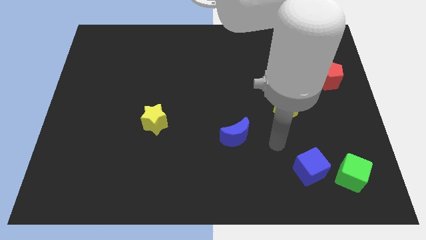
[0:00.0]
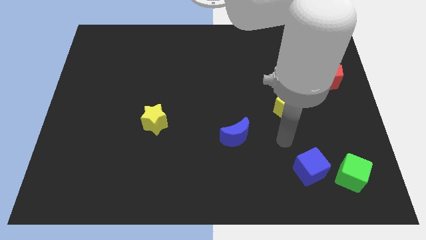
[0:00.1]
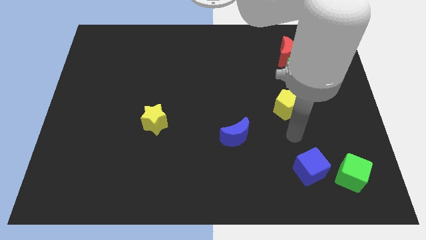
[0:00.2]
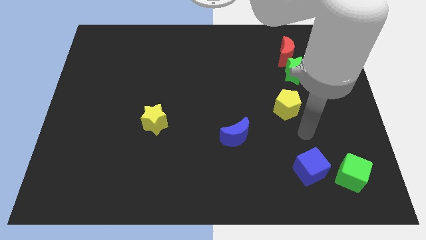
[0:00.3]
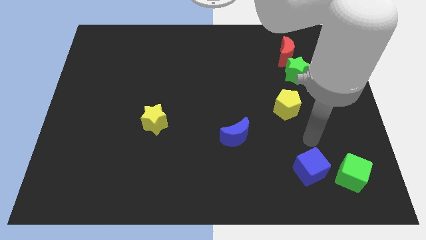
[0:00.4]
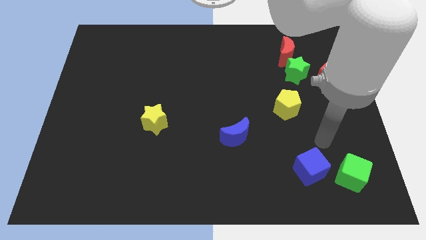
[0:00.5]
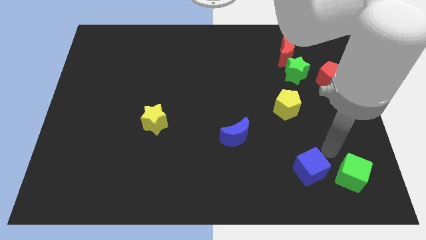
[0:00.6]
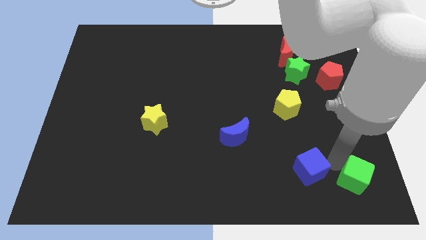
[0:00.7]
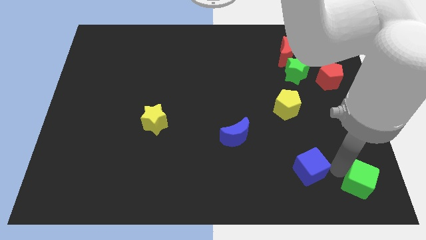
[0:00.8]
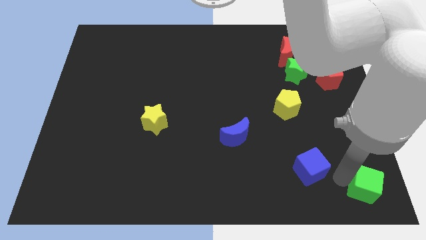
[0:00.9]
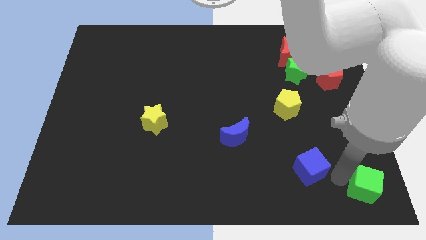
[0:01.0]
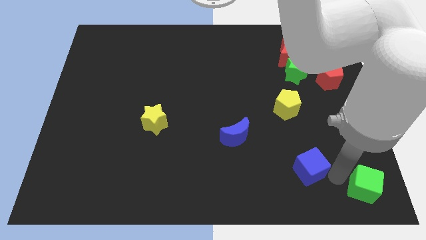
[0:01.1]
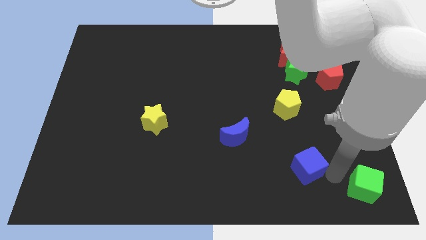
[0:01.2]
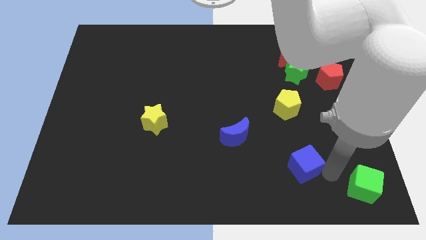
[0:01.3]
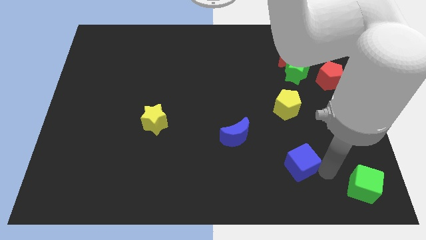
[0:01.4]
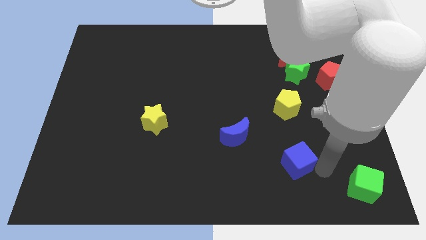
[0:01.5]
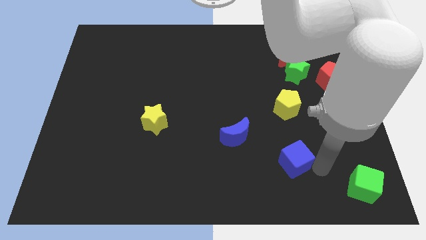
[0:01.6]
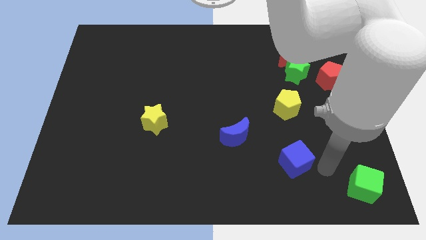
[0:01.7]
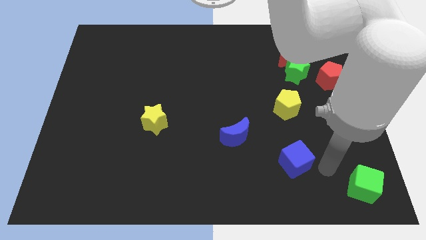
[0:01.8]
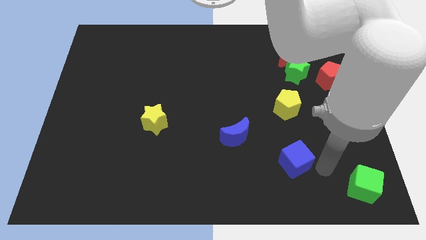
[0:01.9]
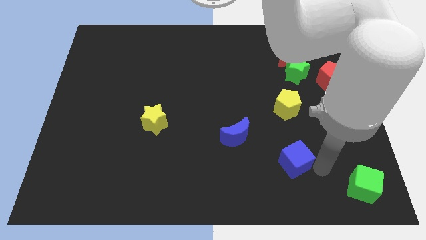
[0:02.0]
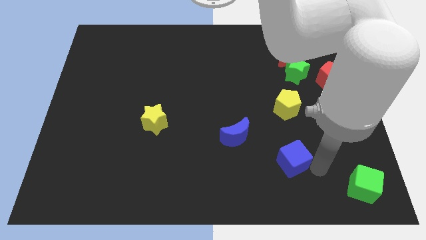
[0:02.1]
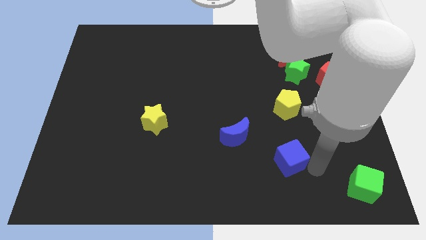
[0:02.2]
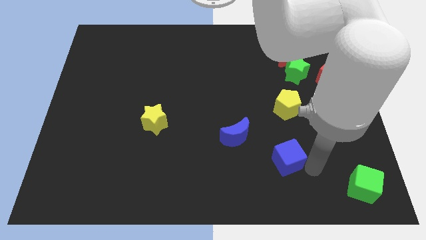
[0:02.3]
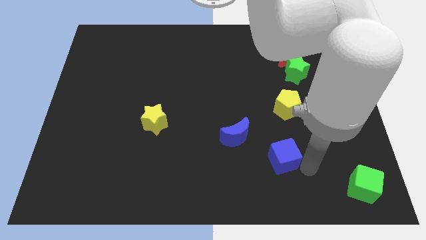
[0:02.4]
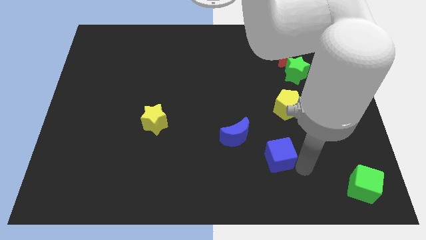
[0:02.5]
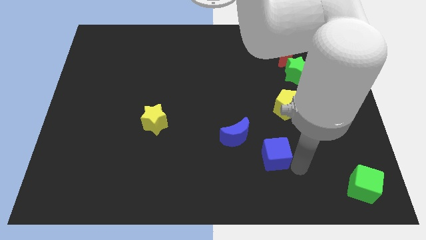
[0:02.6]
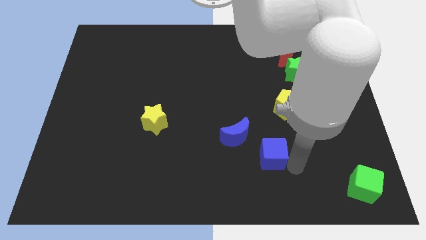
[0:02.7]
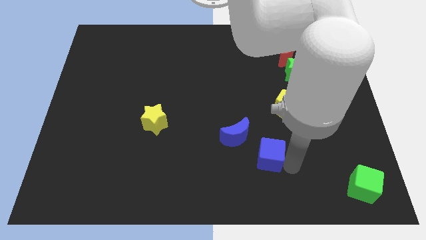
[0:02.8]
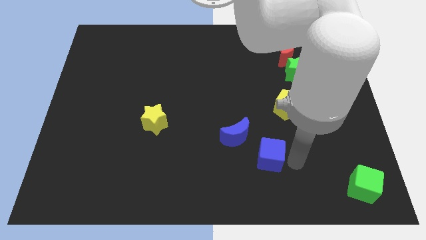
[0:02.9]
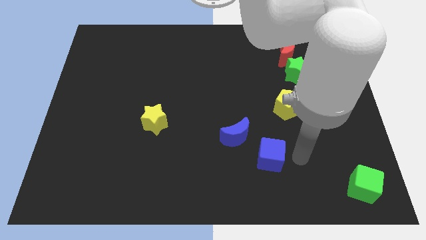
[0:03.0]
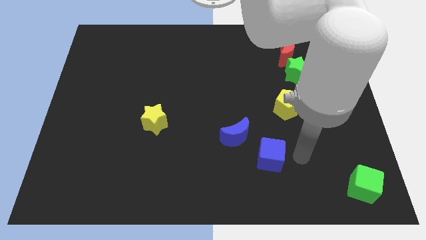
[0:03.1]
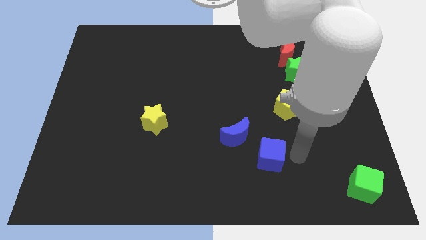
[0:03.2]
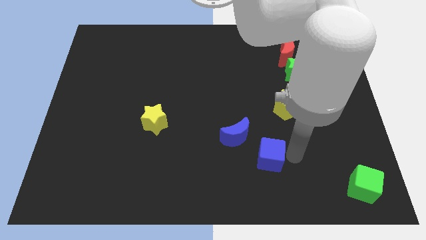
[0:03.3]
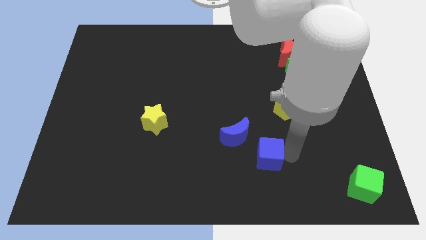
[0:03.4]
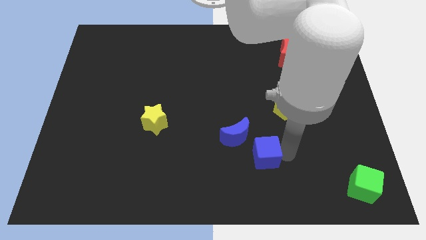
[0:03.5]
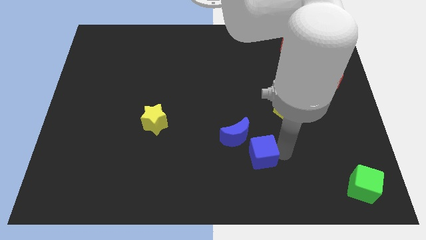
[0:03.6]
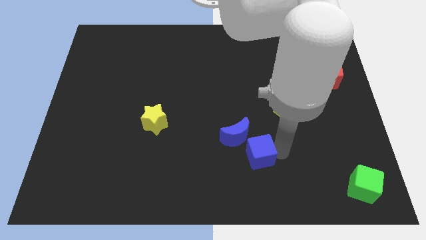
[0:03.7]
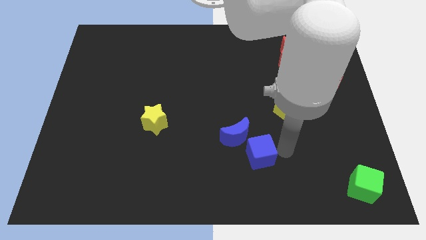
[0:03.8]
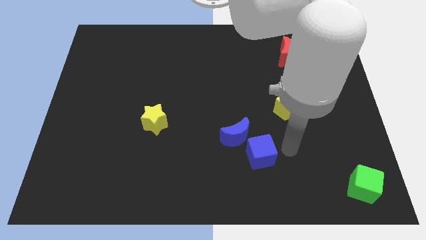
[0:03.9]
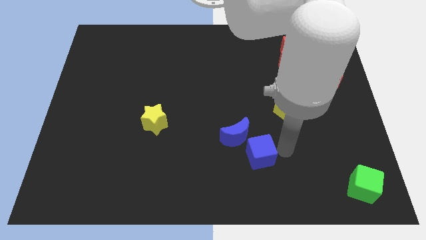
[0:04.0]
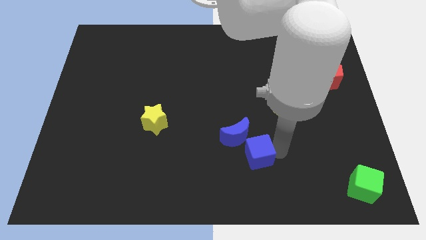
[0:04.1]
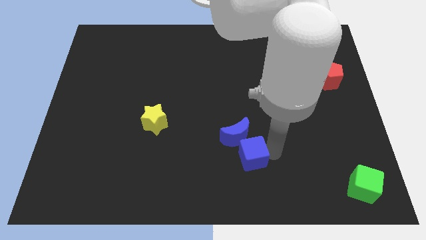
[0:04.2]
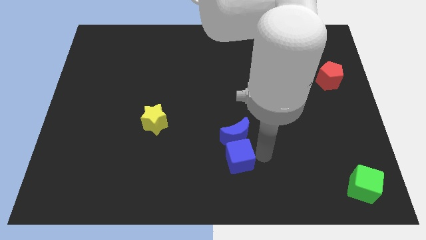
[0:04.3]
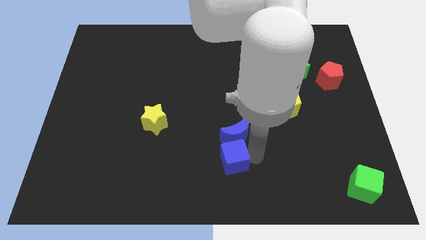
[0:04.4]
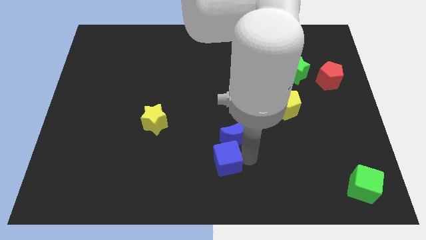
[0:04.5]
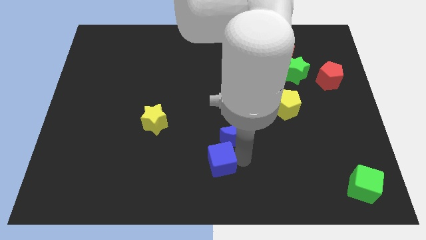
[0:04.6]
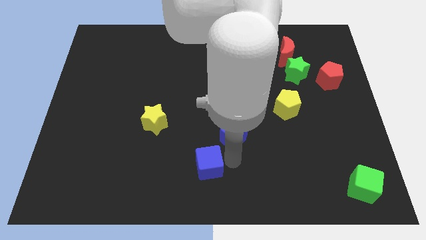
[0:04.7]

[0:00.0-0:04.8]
slide the blue cube left

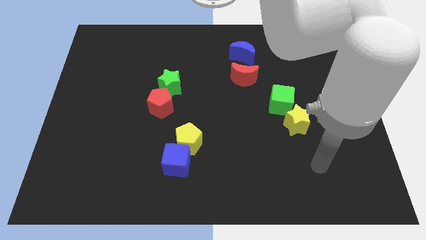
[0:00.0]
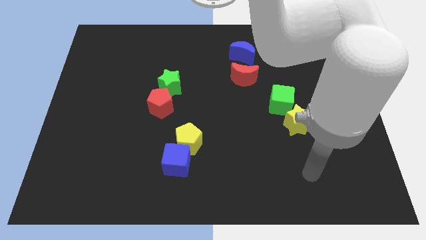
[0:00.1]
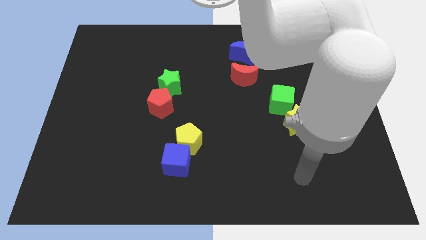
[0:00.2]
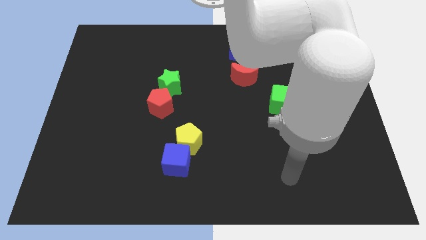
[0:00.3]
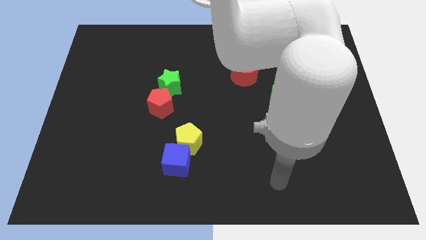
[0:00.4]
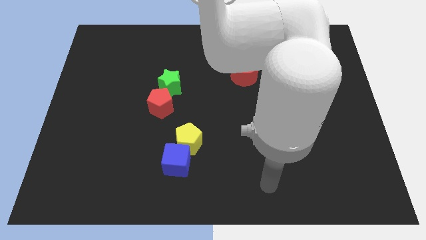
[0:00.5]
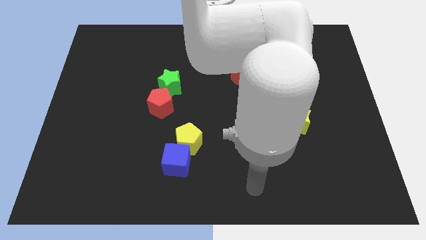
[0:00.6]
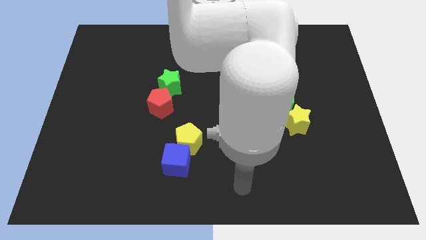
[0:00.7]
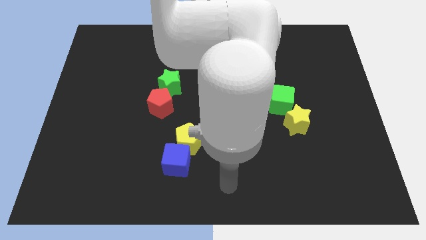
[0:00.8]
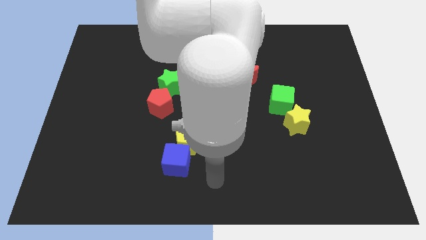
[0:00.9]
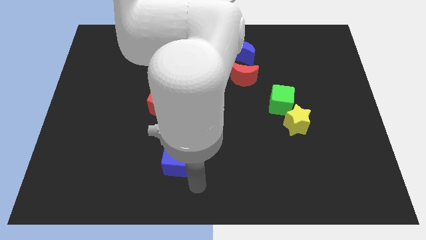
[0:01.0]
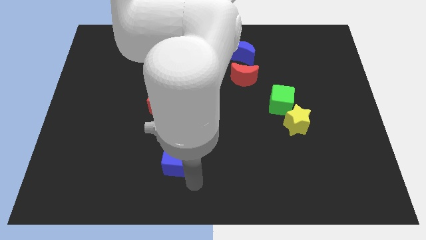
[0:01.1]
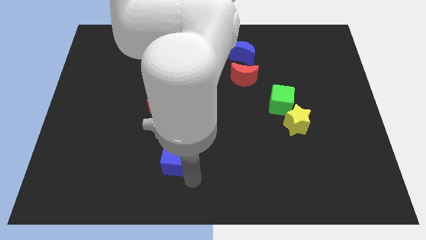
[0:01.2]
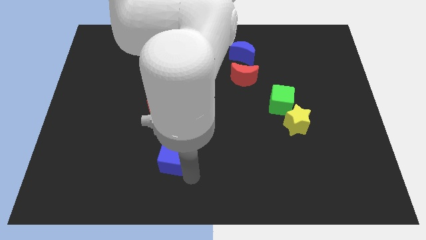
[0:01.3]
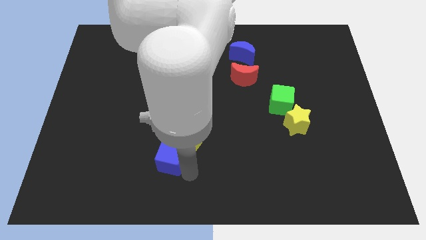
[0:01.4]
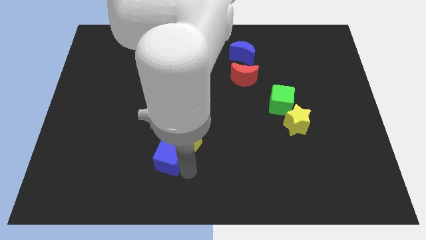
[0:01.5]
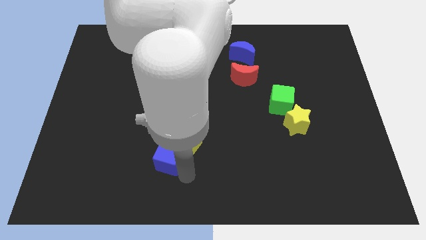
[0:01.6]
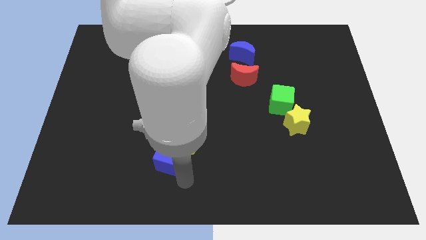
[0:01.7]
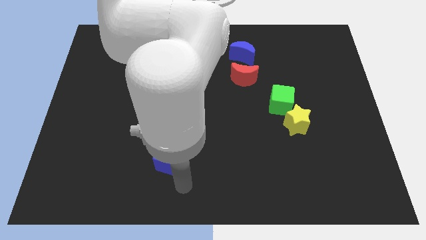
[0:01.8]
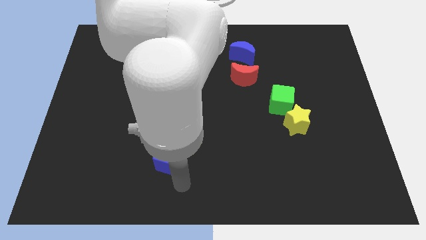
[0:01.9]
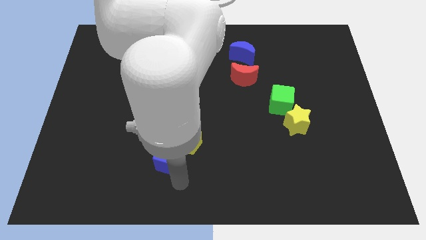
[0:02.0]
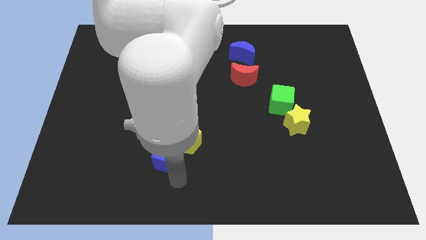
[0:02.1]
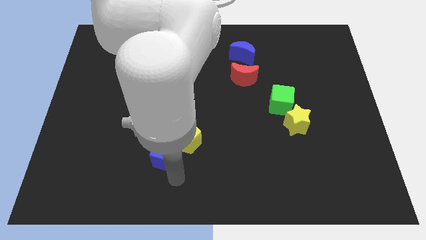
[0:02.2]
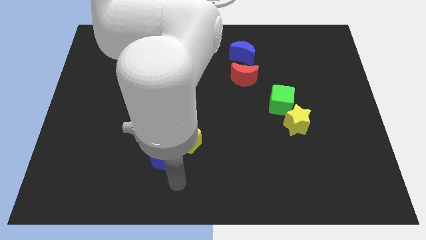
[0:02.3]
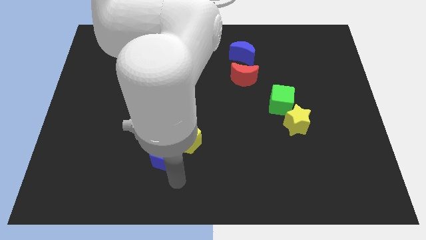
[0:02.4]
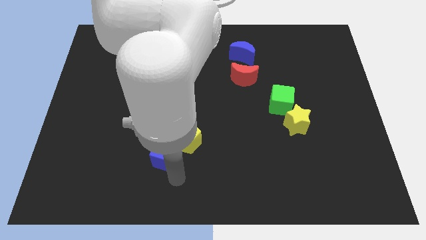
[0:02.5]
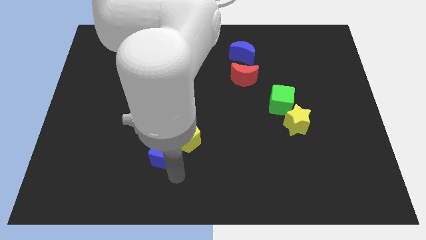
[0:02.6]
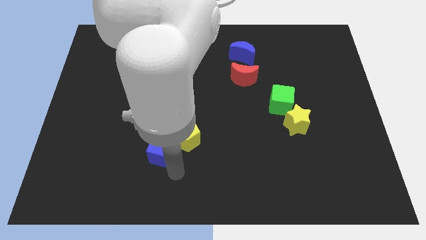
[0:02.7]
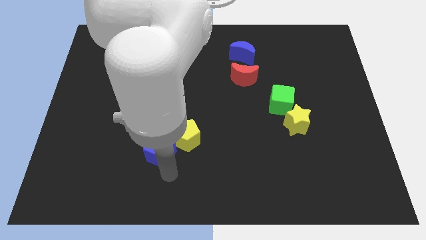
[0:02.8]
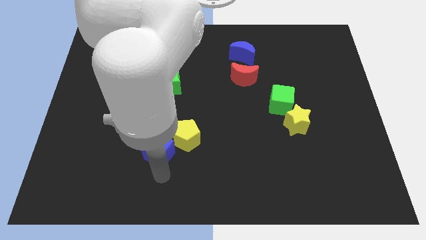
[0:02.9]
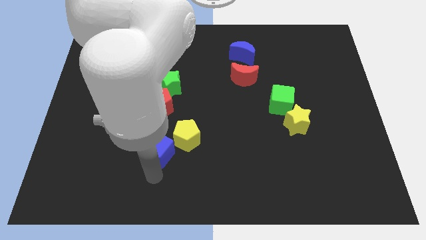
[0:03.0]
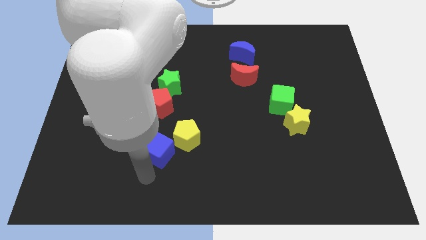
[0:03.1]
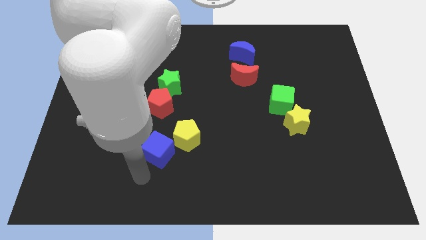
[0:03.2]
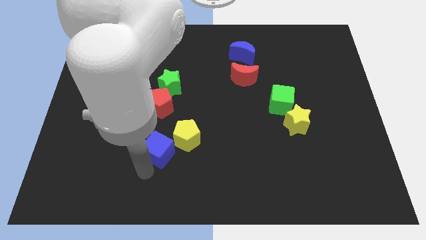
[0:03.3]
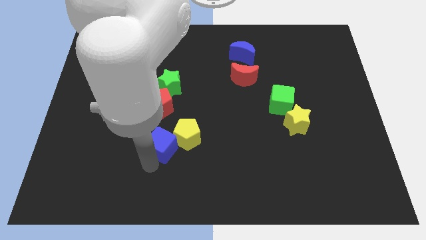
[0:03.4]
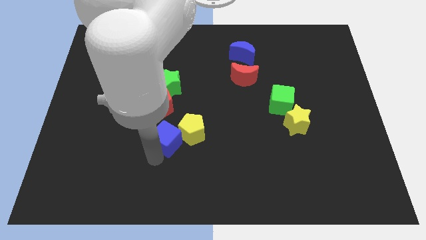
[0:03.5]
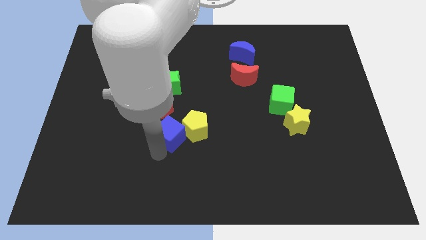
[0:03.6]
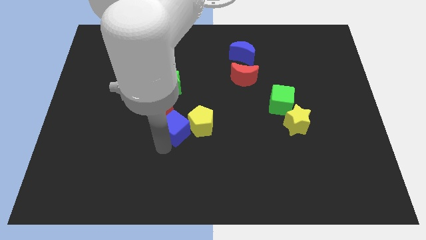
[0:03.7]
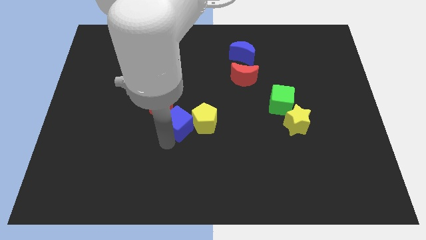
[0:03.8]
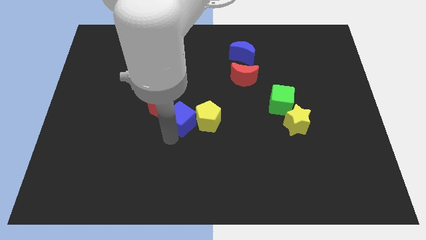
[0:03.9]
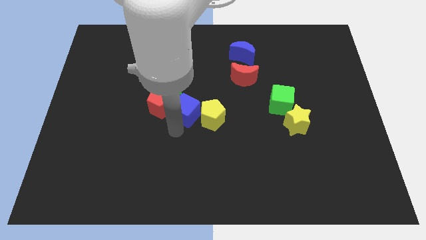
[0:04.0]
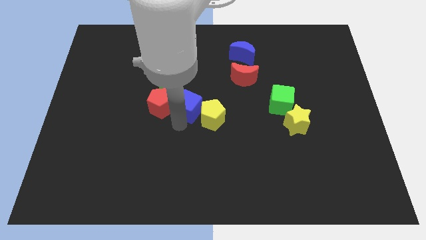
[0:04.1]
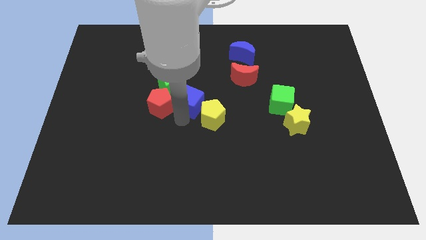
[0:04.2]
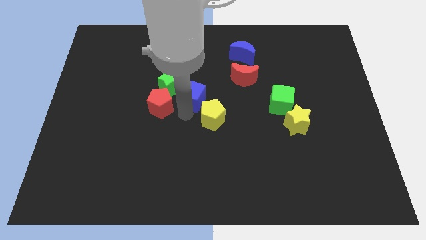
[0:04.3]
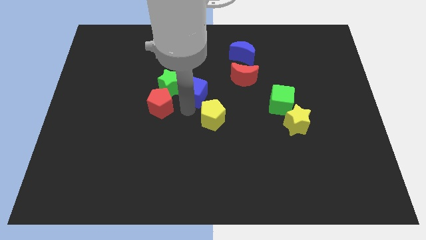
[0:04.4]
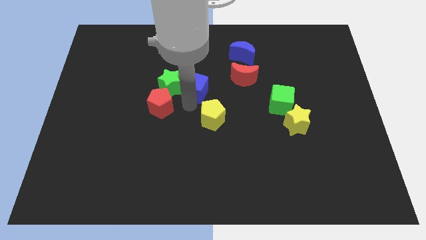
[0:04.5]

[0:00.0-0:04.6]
push the blue cube up
